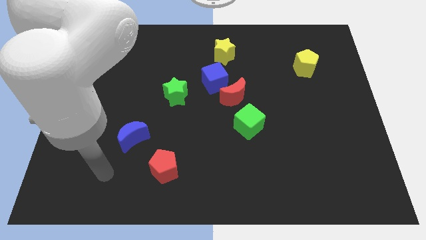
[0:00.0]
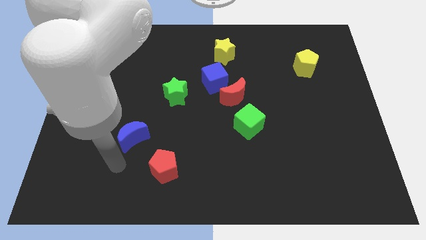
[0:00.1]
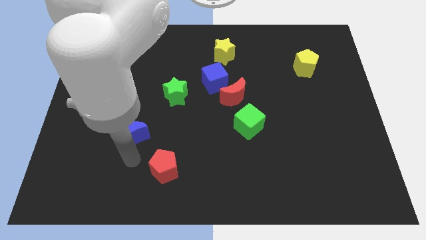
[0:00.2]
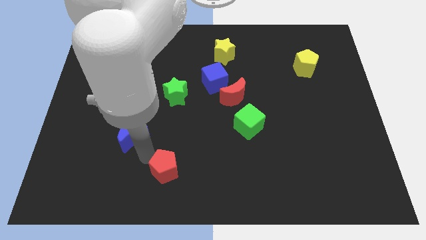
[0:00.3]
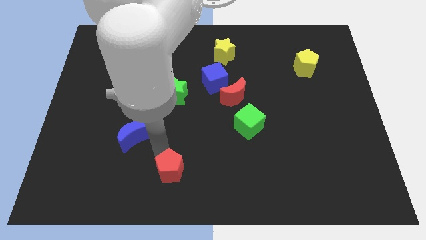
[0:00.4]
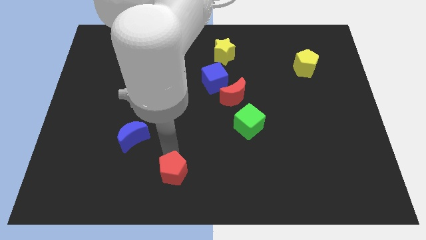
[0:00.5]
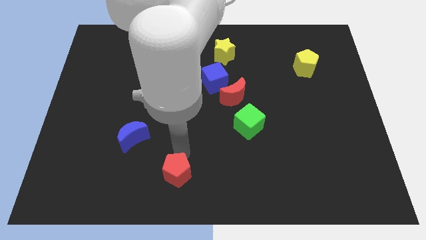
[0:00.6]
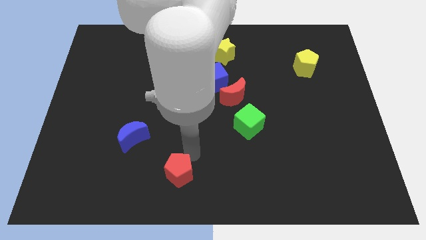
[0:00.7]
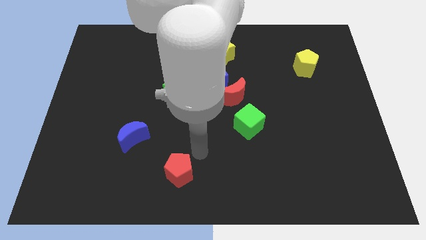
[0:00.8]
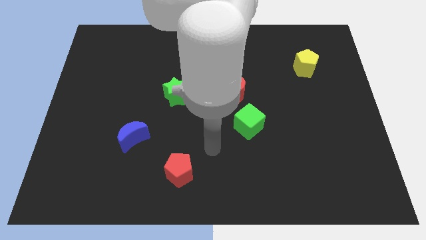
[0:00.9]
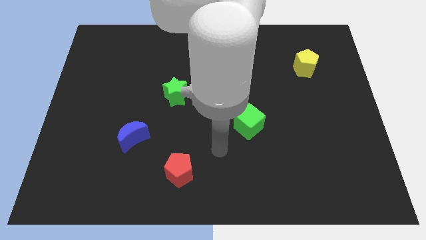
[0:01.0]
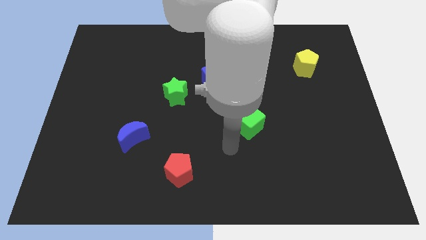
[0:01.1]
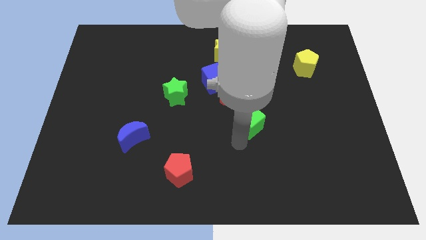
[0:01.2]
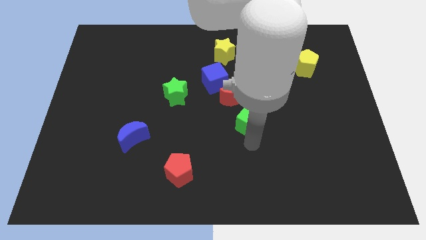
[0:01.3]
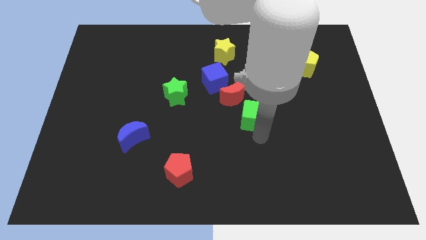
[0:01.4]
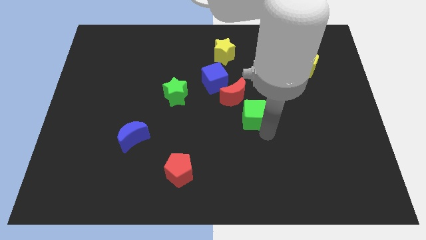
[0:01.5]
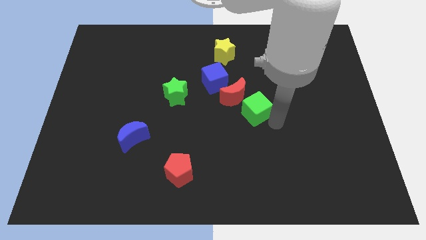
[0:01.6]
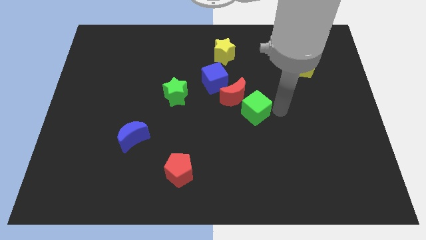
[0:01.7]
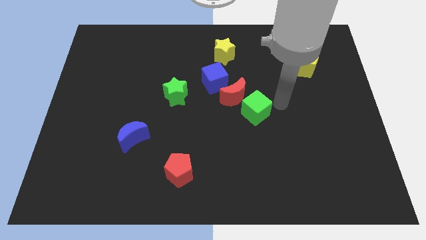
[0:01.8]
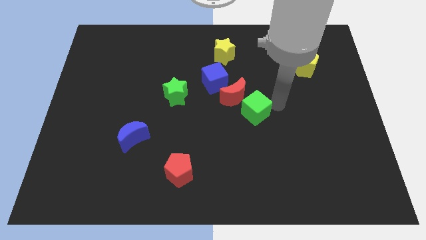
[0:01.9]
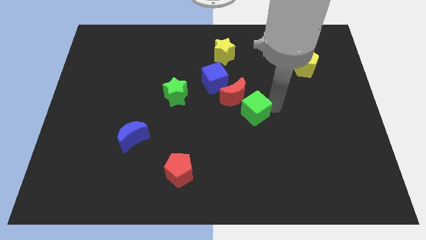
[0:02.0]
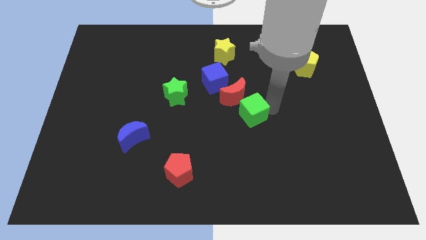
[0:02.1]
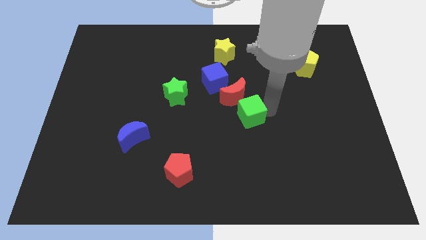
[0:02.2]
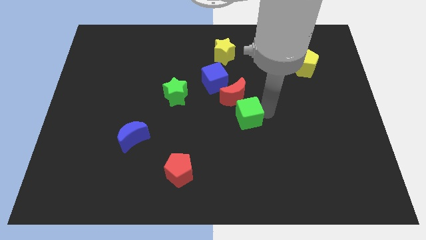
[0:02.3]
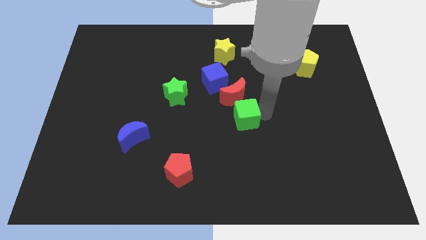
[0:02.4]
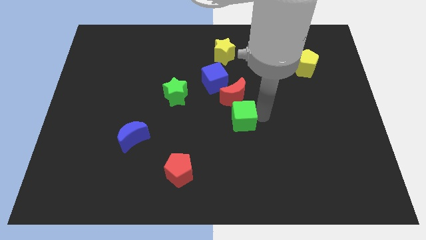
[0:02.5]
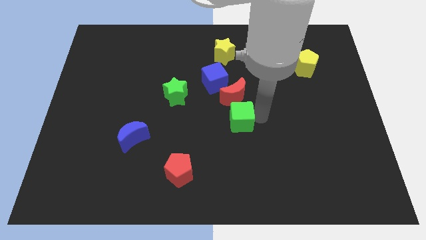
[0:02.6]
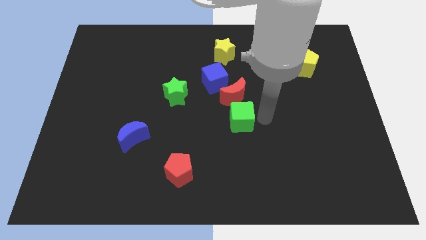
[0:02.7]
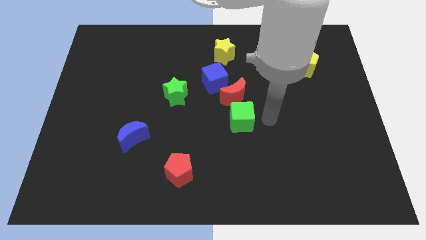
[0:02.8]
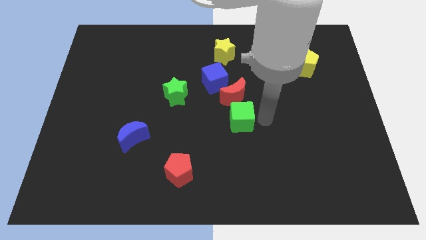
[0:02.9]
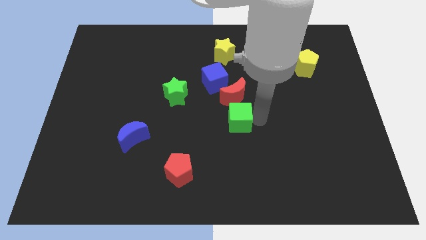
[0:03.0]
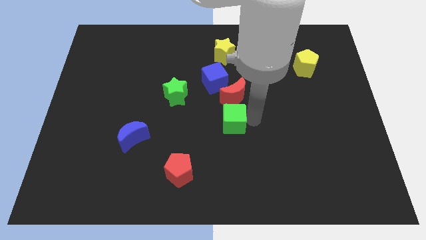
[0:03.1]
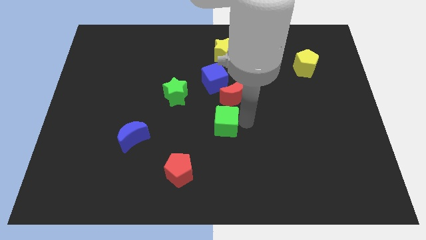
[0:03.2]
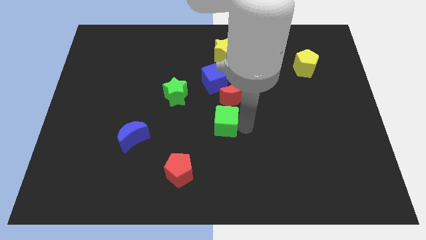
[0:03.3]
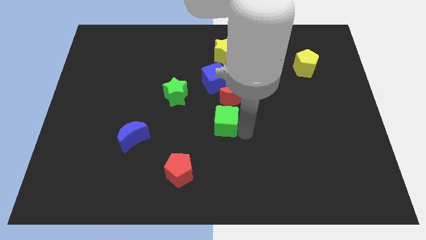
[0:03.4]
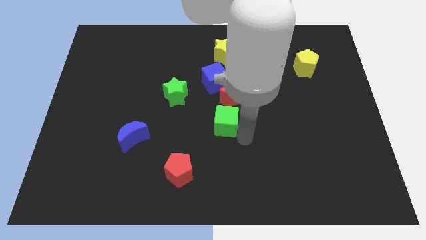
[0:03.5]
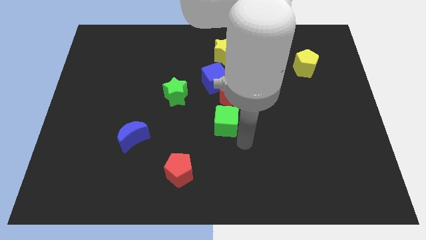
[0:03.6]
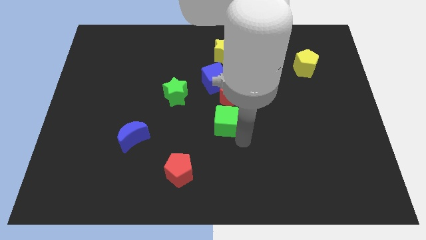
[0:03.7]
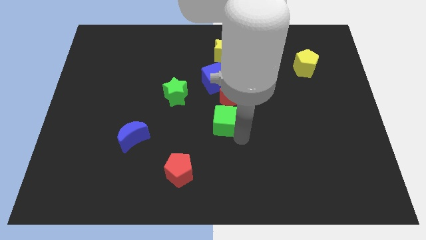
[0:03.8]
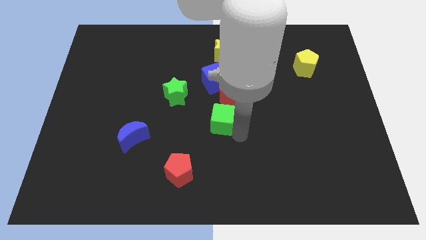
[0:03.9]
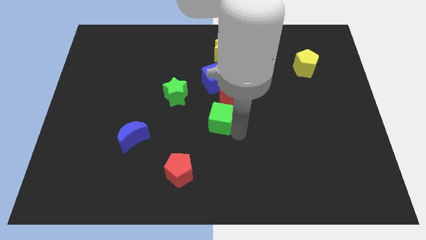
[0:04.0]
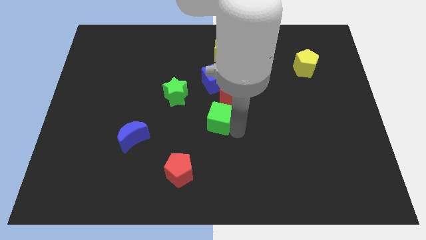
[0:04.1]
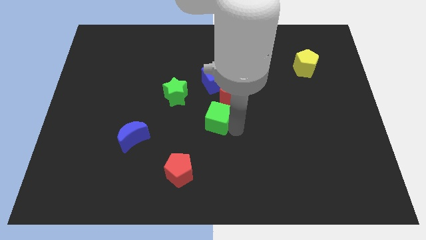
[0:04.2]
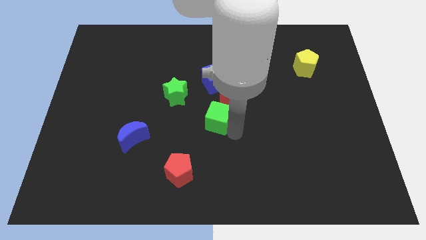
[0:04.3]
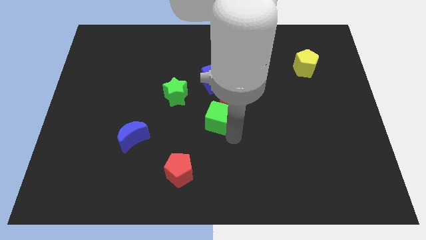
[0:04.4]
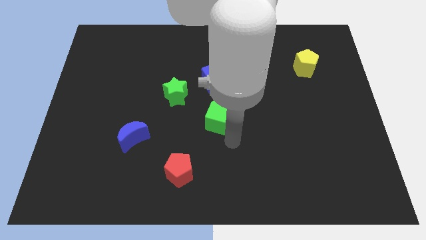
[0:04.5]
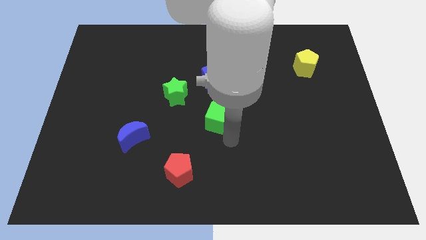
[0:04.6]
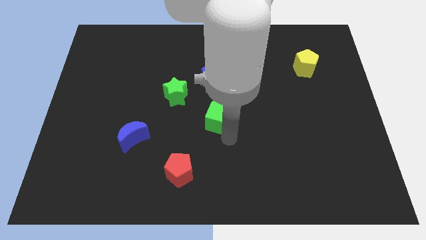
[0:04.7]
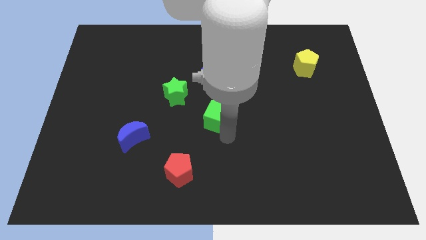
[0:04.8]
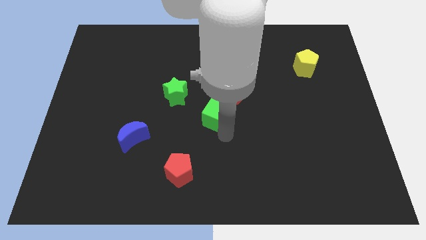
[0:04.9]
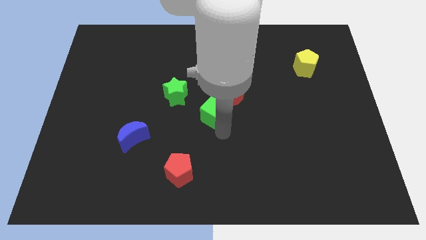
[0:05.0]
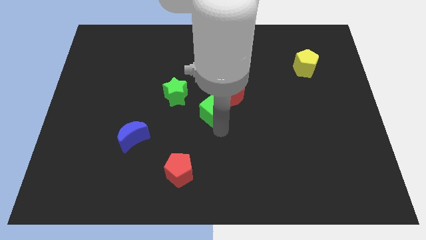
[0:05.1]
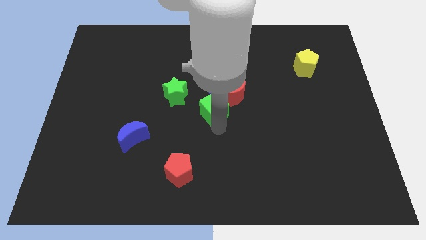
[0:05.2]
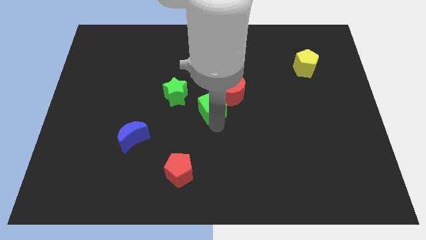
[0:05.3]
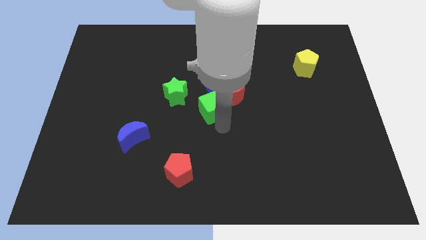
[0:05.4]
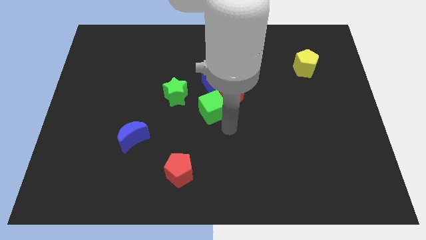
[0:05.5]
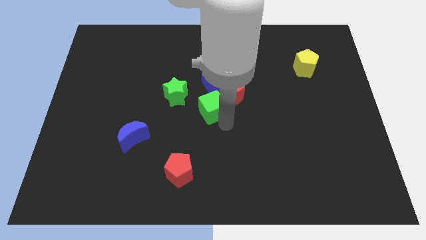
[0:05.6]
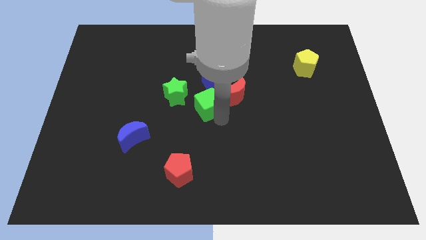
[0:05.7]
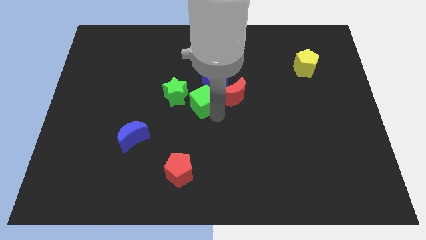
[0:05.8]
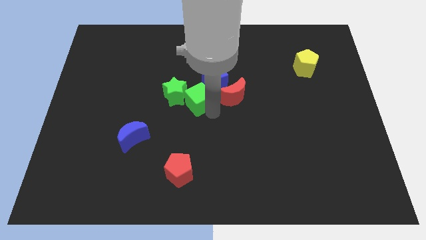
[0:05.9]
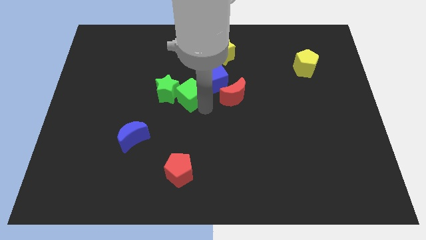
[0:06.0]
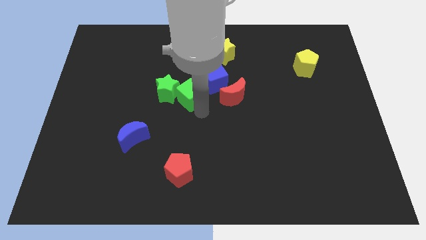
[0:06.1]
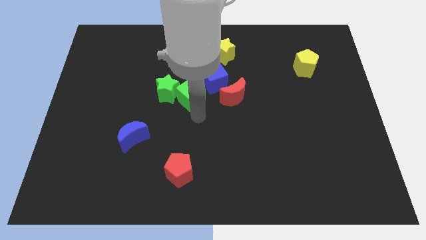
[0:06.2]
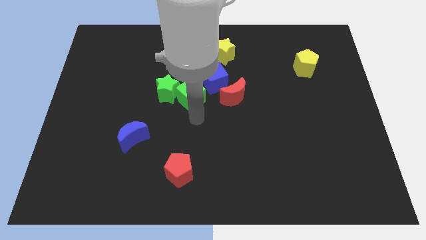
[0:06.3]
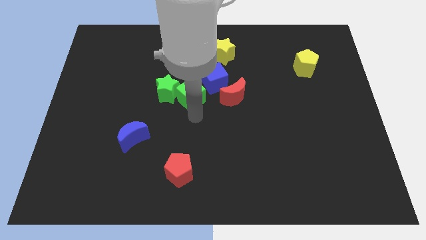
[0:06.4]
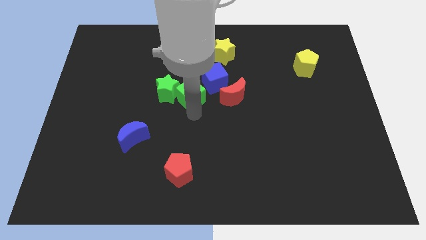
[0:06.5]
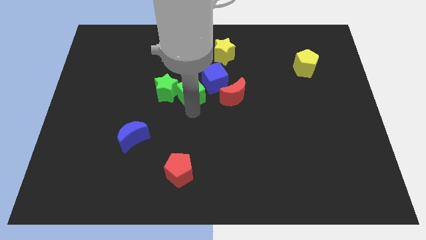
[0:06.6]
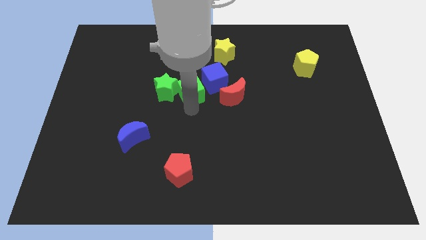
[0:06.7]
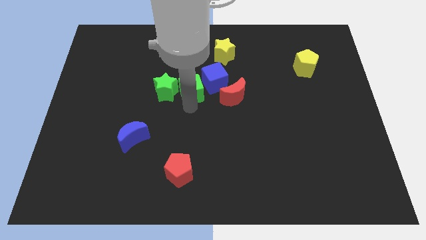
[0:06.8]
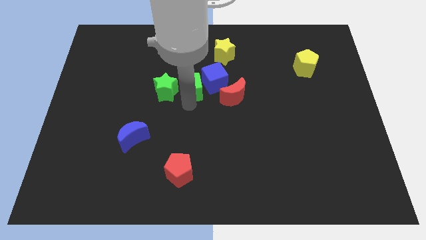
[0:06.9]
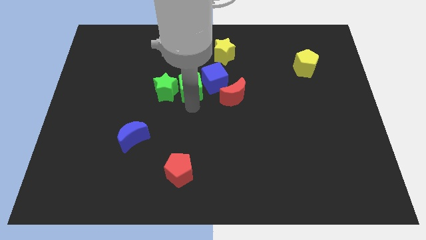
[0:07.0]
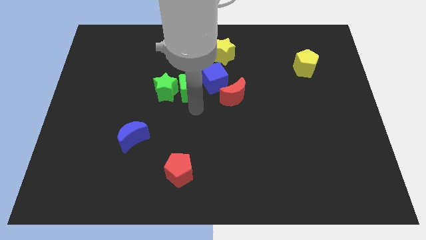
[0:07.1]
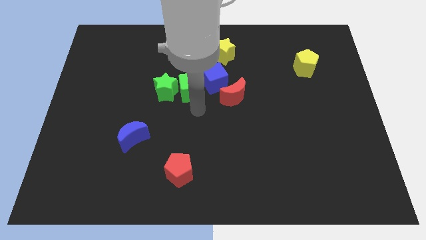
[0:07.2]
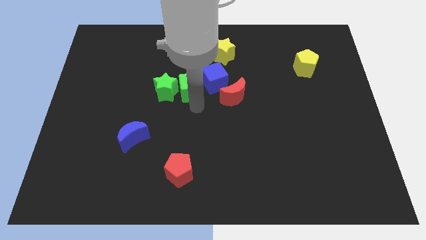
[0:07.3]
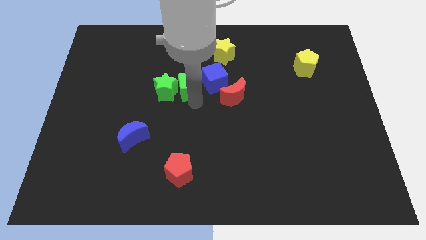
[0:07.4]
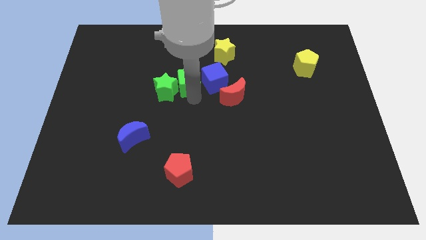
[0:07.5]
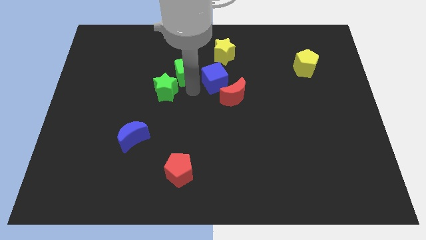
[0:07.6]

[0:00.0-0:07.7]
move the green cube to the top of the green star
